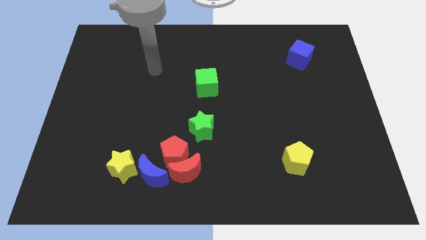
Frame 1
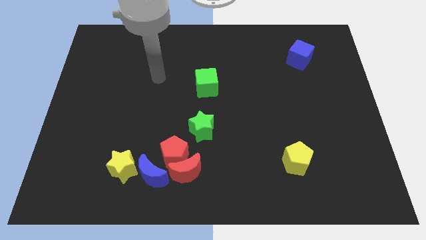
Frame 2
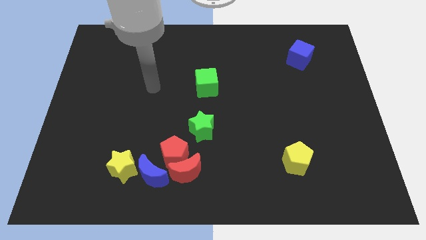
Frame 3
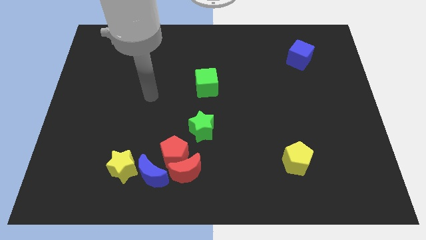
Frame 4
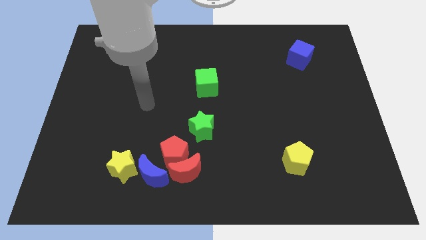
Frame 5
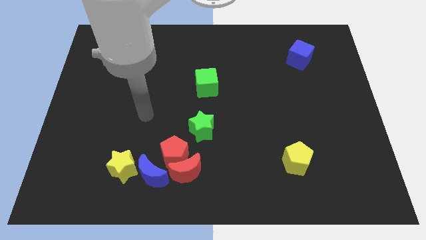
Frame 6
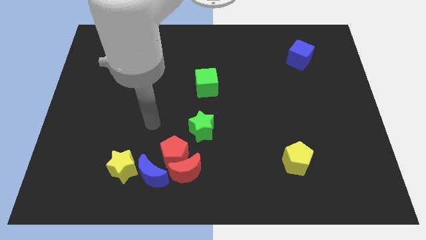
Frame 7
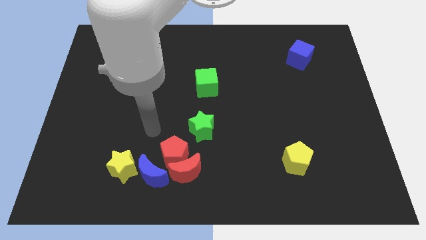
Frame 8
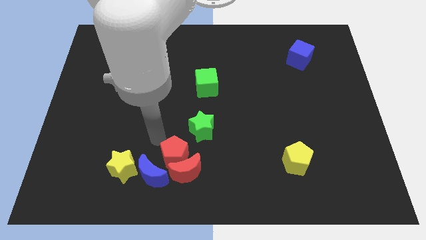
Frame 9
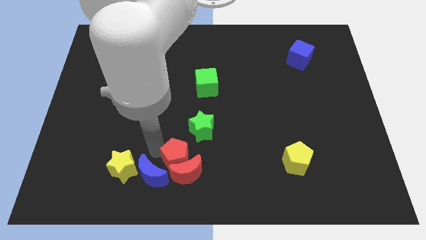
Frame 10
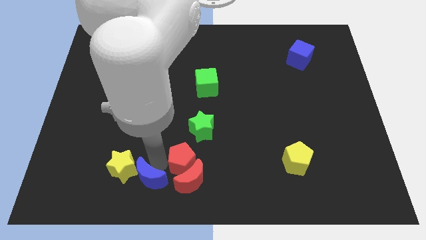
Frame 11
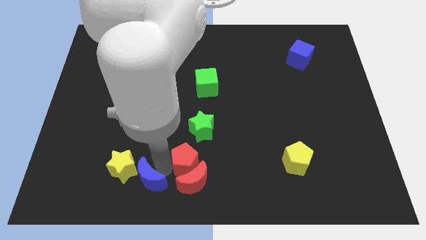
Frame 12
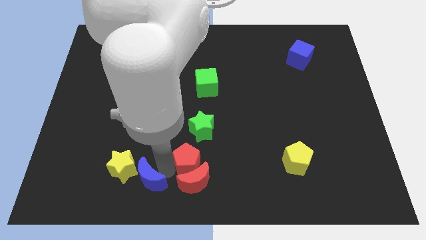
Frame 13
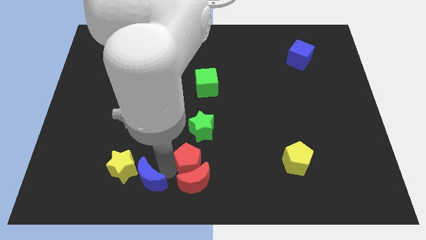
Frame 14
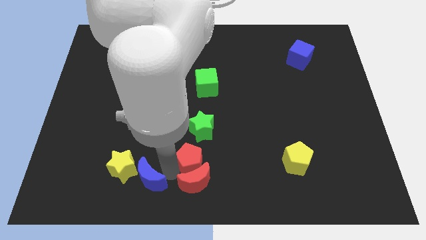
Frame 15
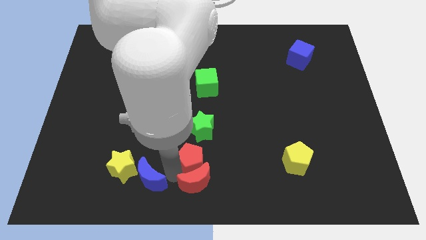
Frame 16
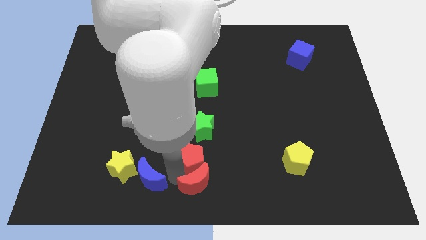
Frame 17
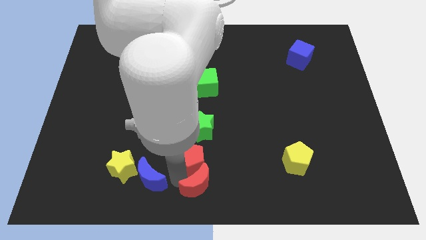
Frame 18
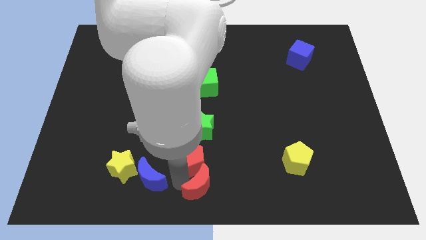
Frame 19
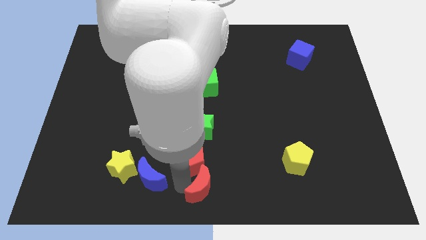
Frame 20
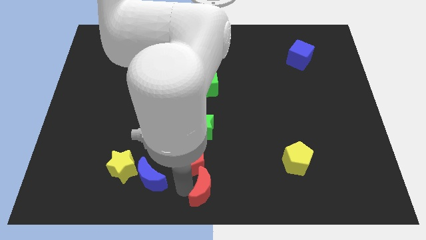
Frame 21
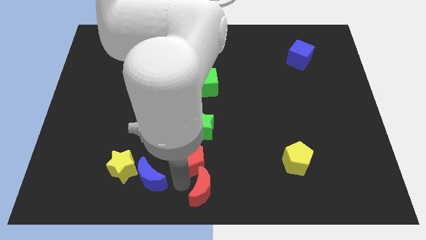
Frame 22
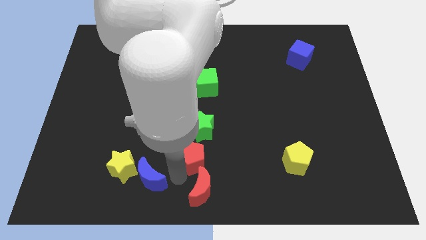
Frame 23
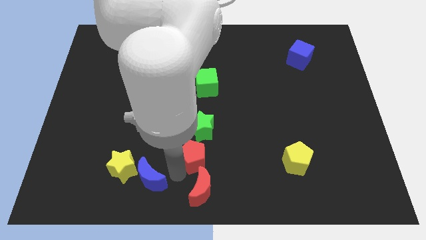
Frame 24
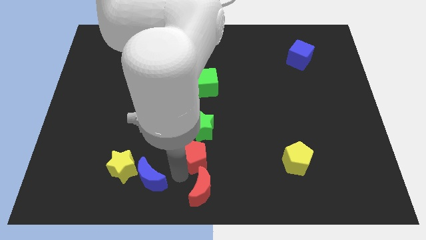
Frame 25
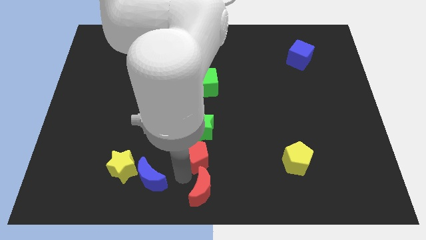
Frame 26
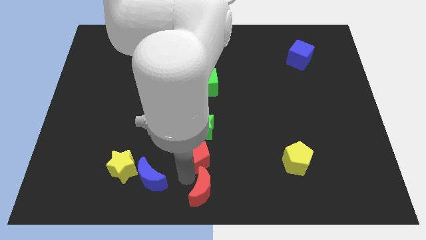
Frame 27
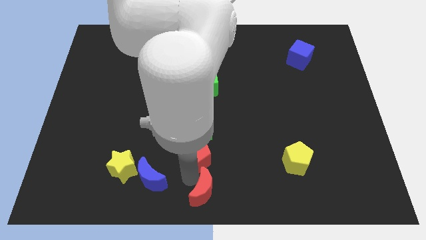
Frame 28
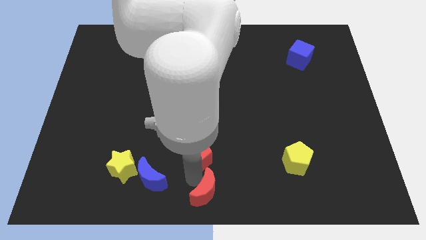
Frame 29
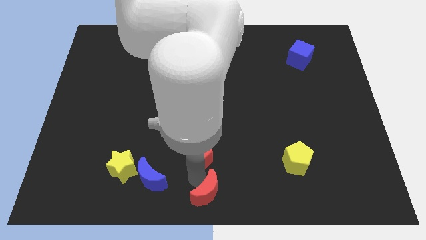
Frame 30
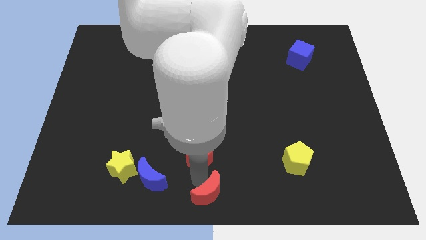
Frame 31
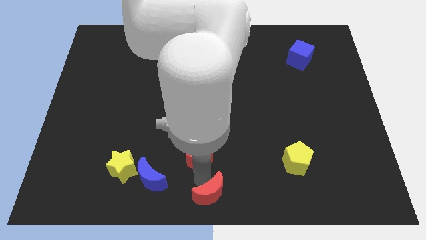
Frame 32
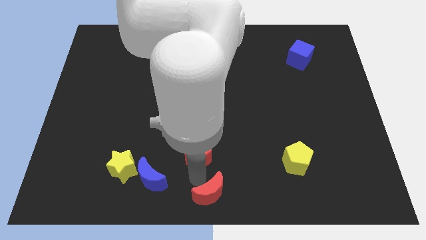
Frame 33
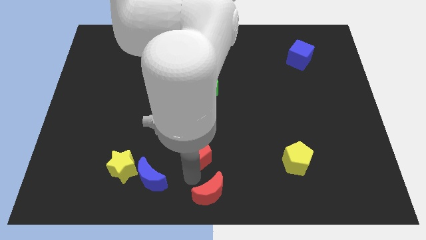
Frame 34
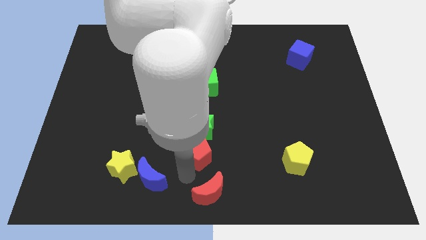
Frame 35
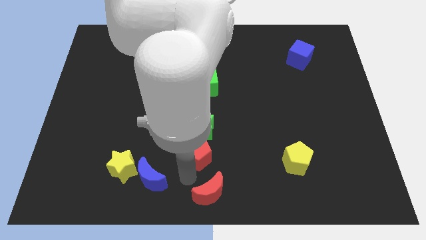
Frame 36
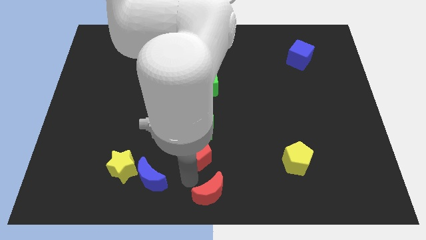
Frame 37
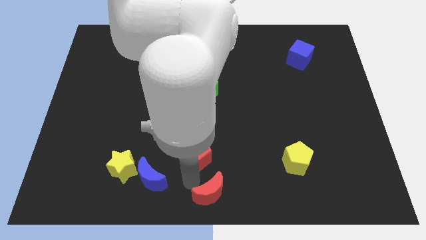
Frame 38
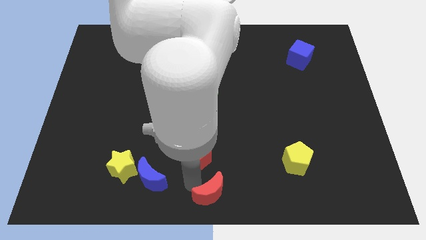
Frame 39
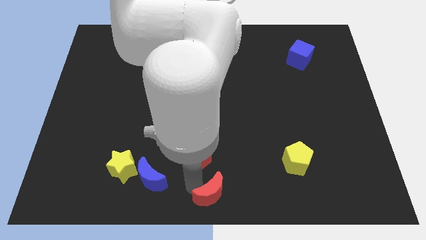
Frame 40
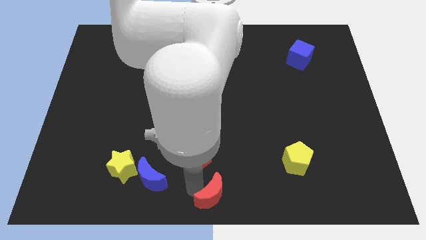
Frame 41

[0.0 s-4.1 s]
pull the red moon apart from the red pentagon and blue moon

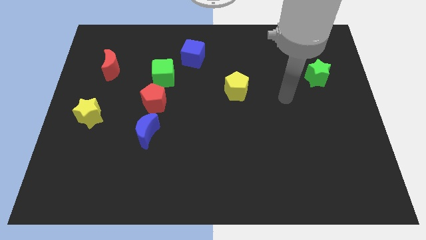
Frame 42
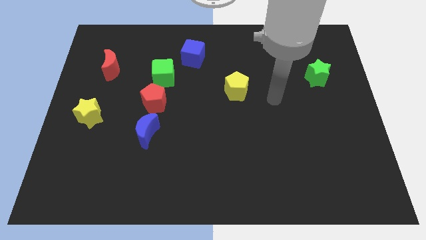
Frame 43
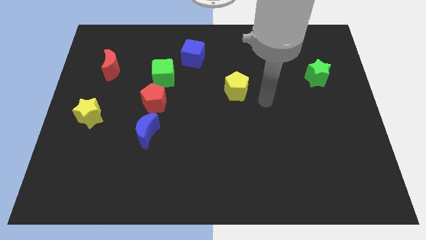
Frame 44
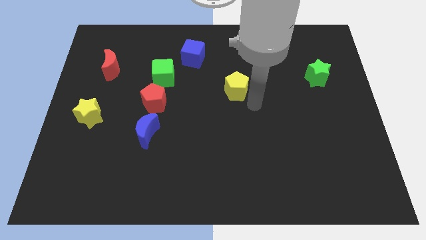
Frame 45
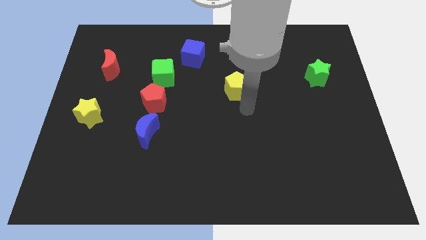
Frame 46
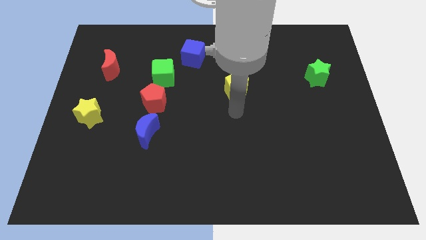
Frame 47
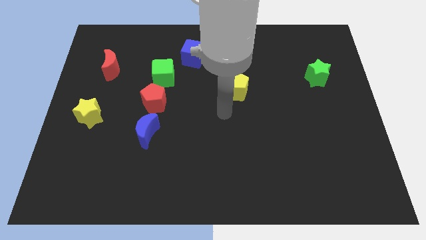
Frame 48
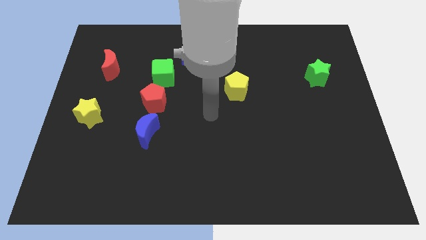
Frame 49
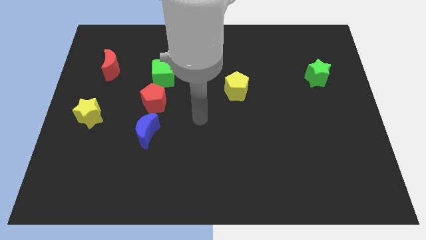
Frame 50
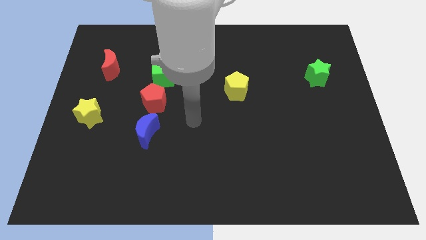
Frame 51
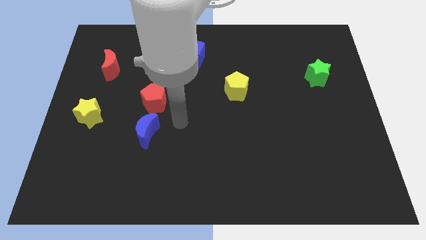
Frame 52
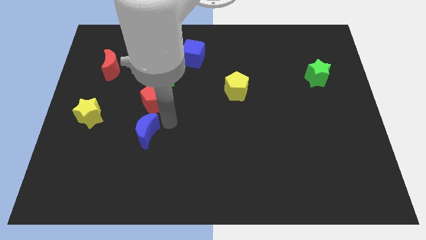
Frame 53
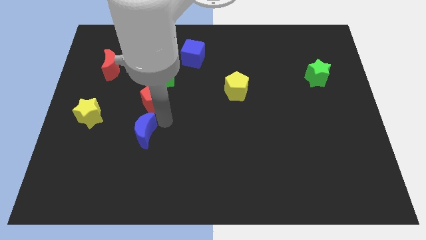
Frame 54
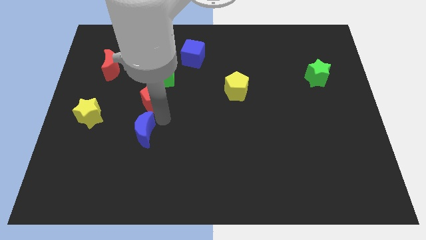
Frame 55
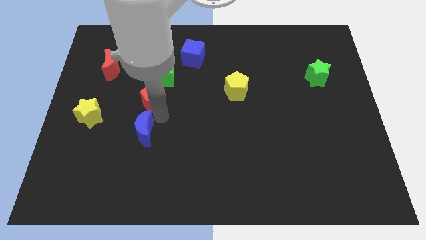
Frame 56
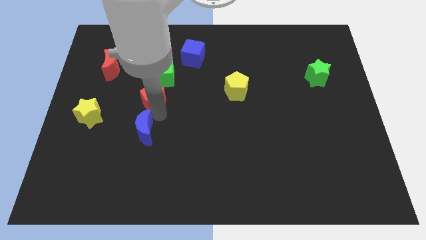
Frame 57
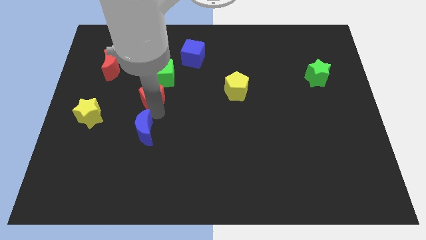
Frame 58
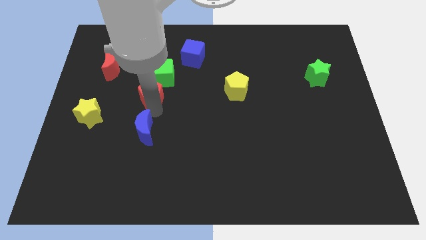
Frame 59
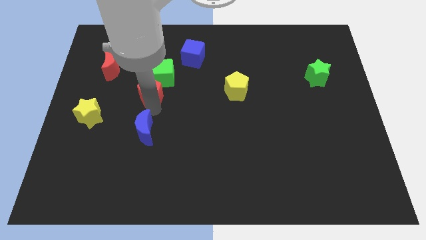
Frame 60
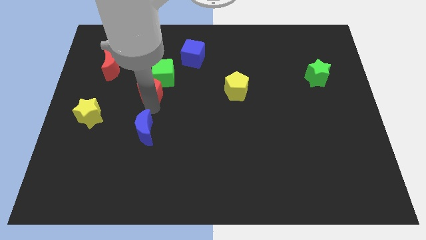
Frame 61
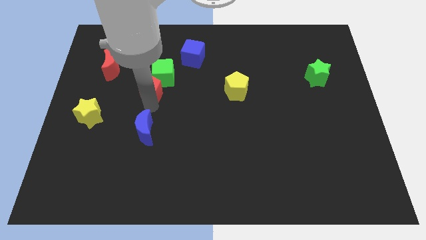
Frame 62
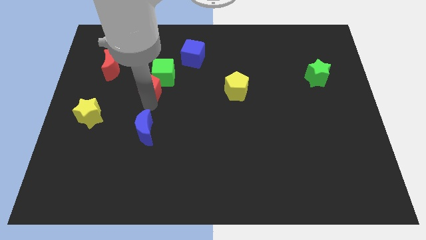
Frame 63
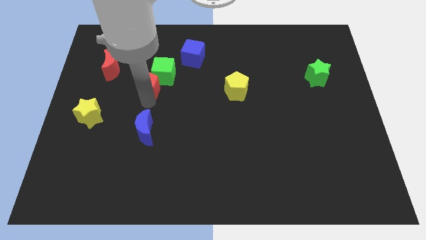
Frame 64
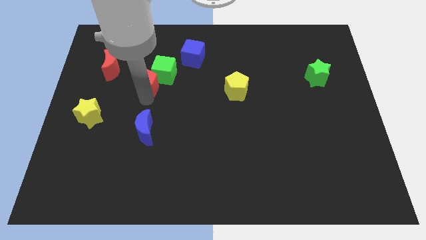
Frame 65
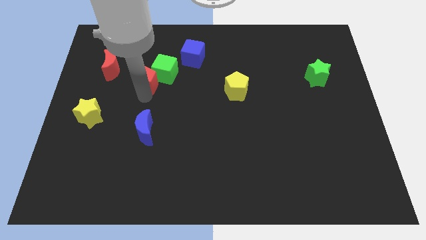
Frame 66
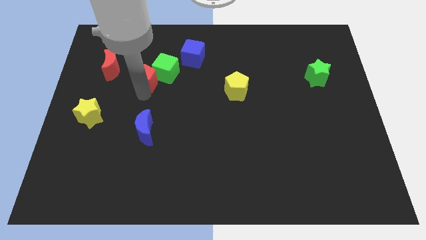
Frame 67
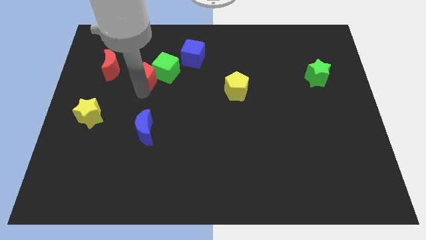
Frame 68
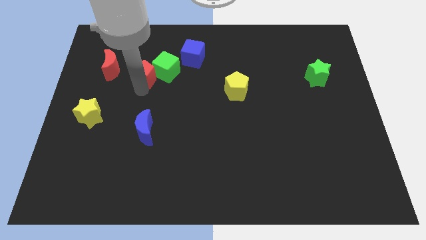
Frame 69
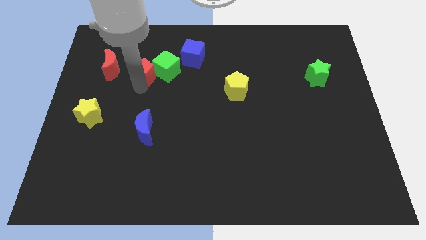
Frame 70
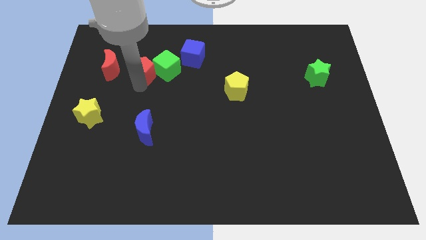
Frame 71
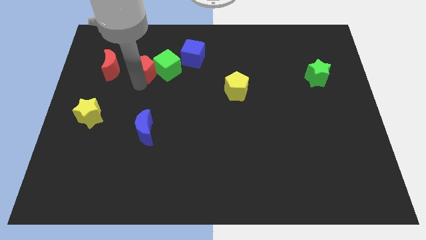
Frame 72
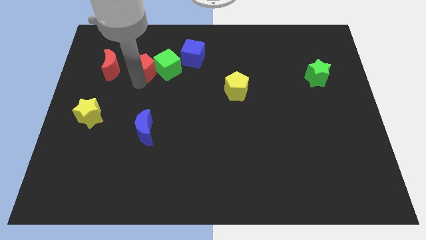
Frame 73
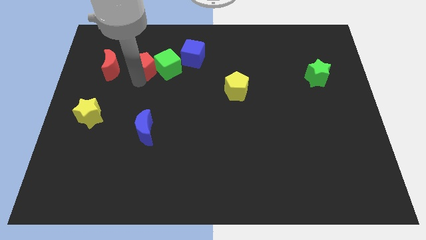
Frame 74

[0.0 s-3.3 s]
move the red pentagon away from the green cube and blue moon

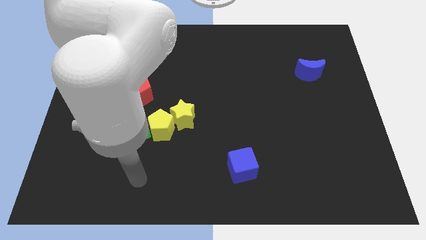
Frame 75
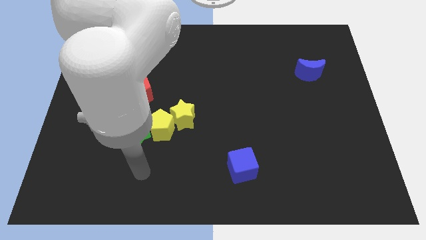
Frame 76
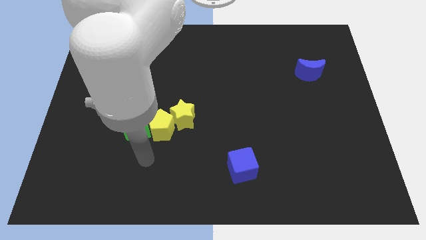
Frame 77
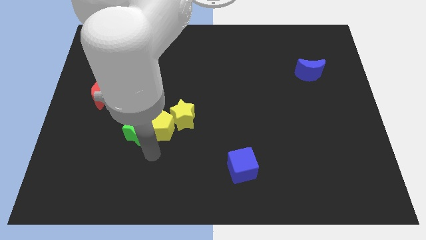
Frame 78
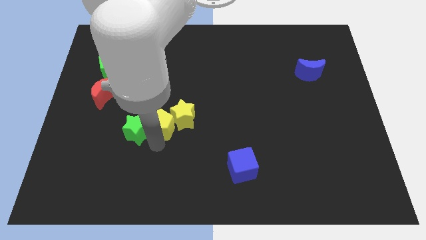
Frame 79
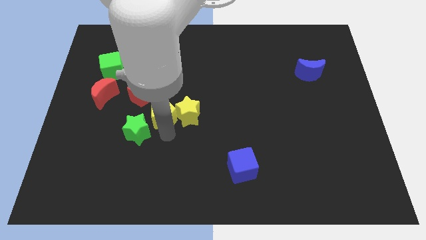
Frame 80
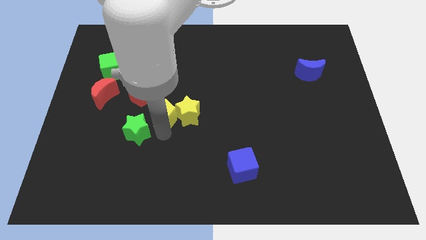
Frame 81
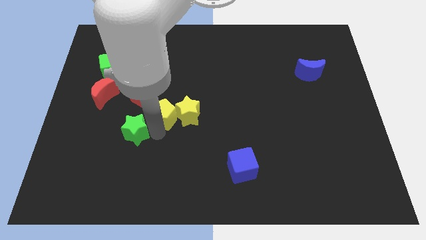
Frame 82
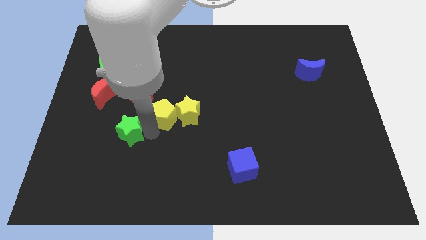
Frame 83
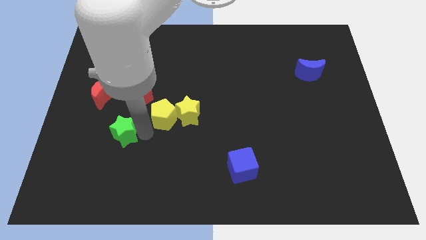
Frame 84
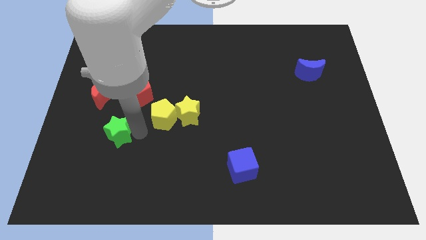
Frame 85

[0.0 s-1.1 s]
separate the green star from the yellow pentagon

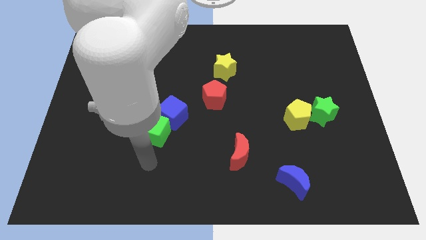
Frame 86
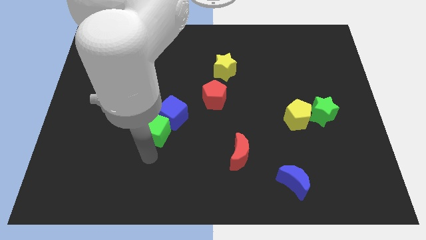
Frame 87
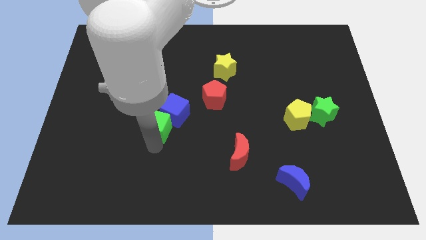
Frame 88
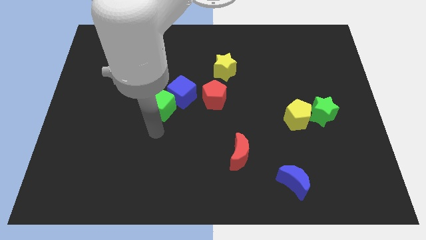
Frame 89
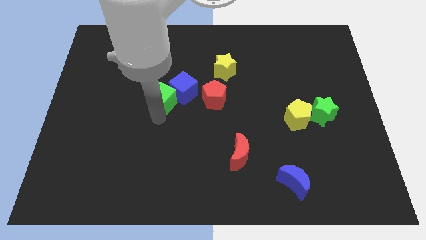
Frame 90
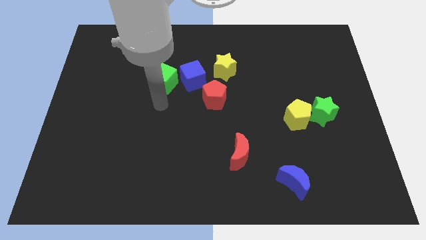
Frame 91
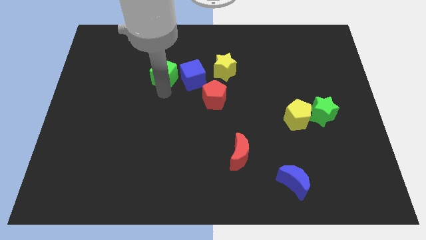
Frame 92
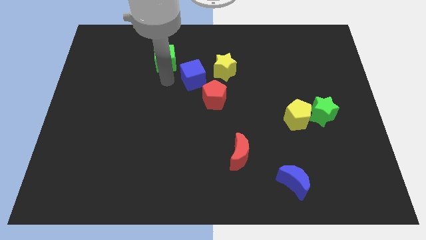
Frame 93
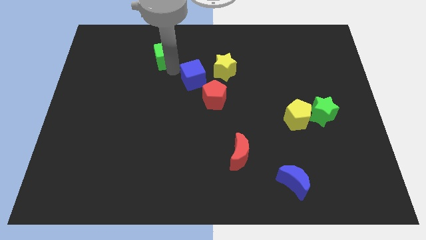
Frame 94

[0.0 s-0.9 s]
move the blue cube away from the green cube

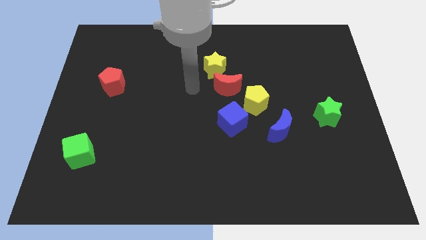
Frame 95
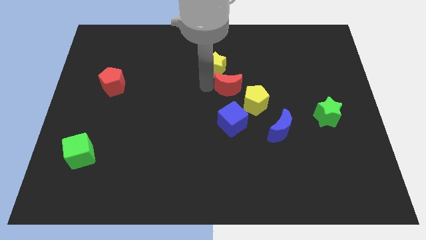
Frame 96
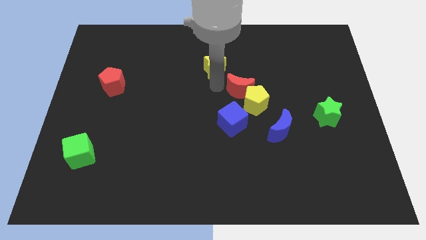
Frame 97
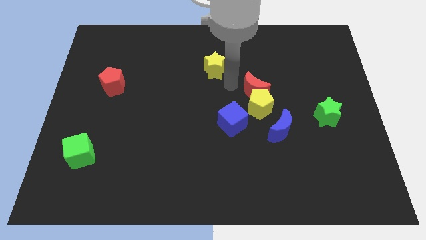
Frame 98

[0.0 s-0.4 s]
pull the yellow star apart from the red moon
